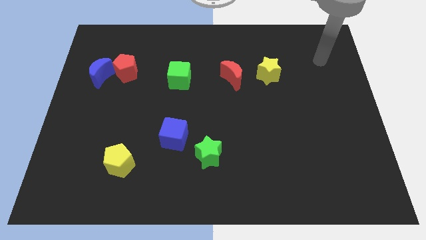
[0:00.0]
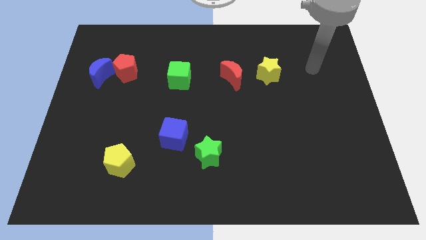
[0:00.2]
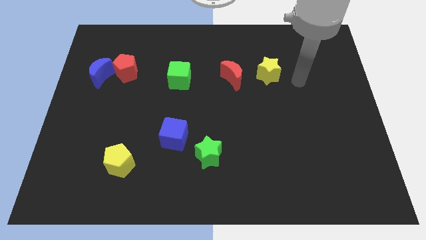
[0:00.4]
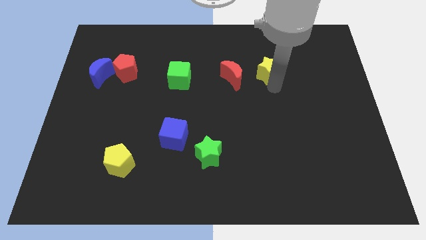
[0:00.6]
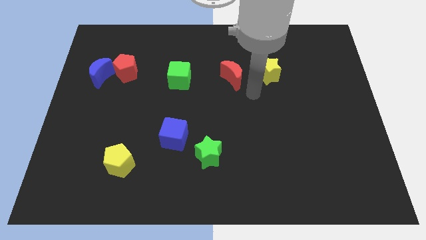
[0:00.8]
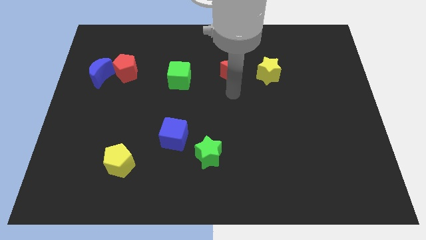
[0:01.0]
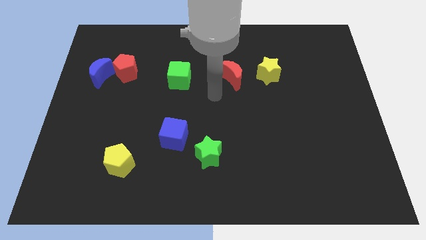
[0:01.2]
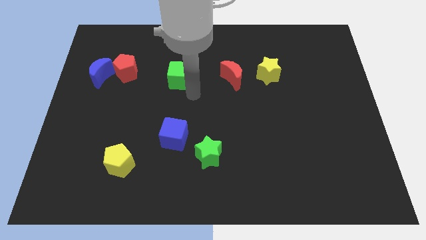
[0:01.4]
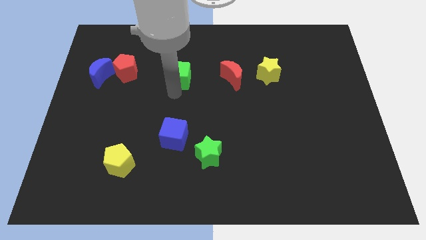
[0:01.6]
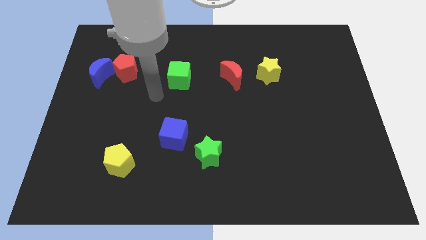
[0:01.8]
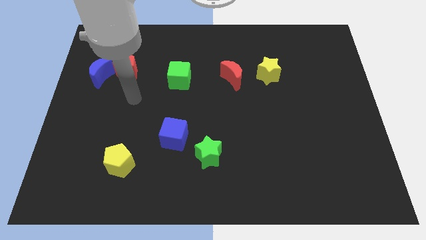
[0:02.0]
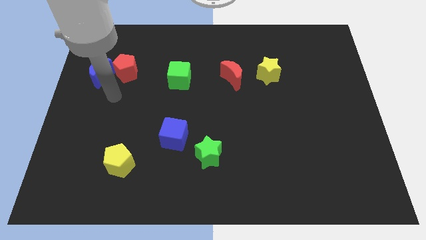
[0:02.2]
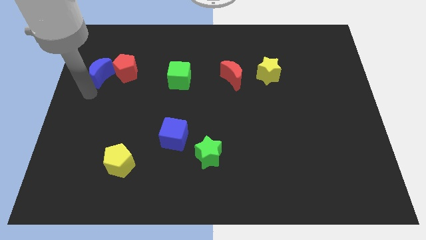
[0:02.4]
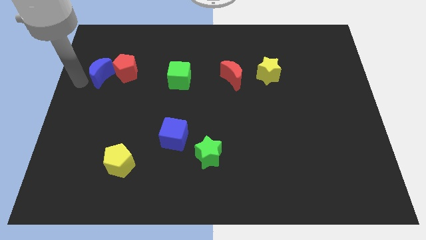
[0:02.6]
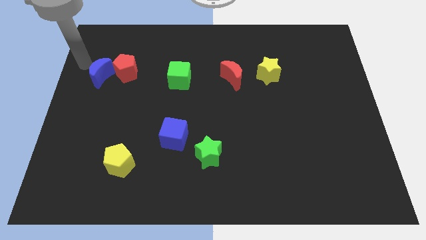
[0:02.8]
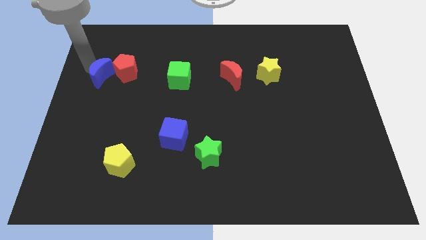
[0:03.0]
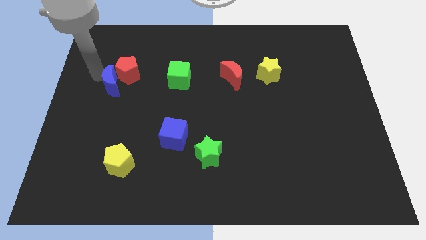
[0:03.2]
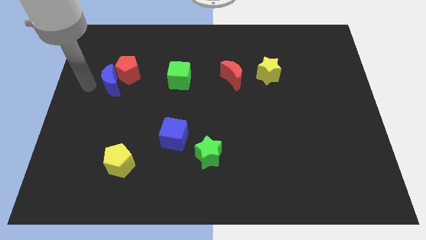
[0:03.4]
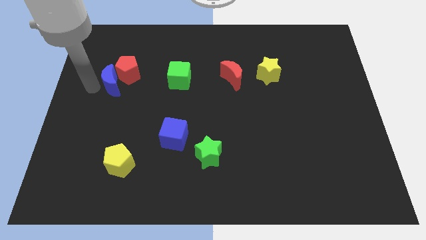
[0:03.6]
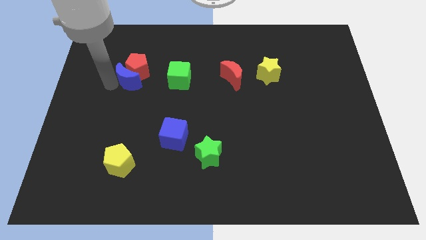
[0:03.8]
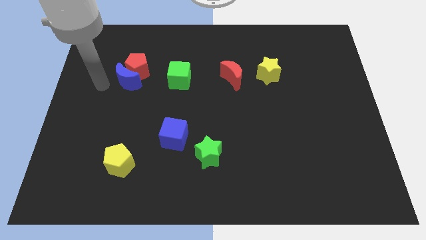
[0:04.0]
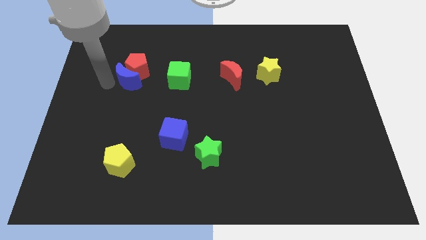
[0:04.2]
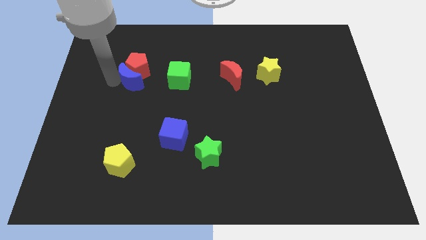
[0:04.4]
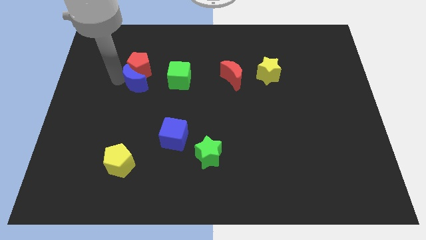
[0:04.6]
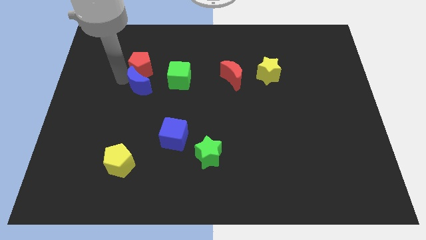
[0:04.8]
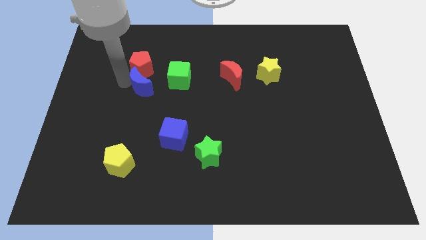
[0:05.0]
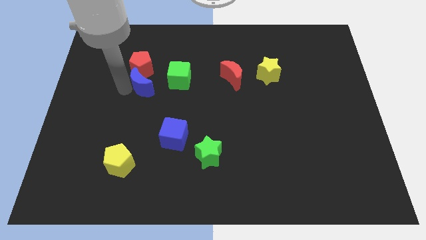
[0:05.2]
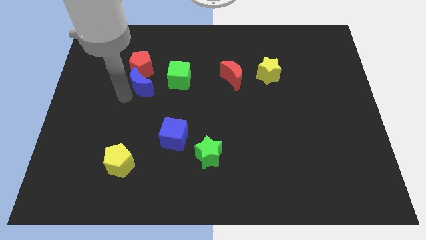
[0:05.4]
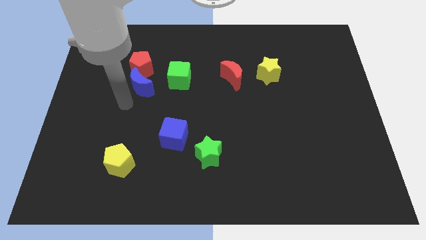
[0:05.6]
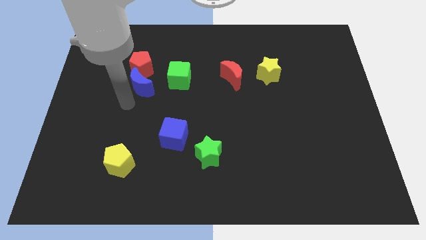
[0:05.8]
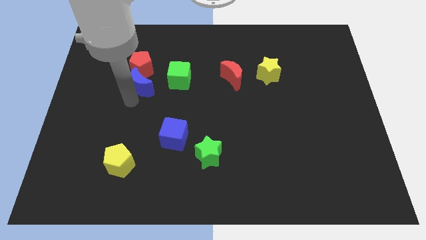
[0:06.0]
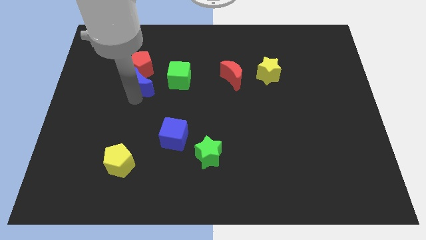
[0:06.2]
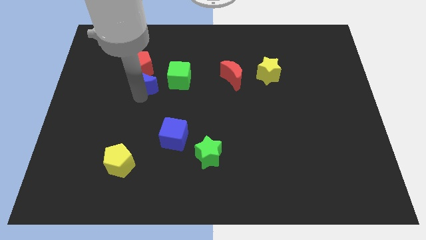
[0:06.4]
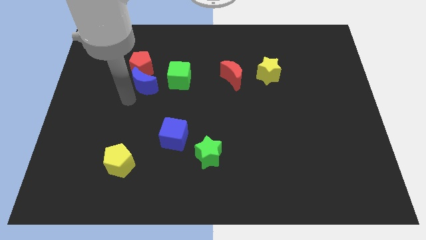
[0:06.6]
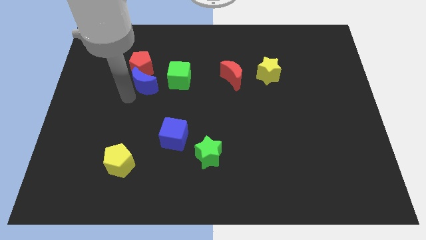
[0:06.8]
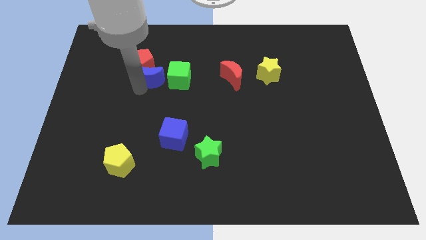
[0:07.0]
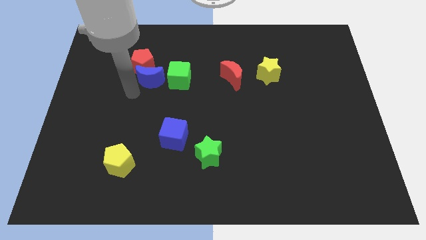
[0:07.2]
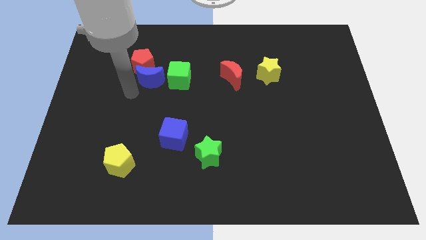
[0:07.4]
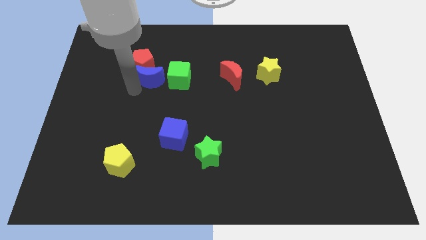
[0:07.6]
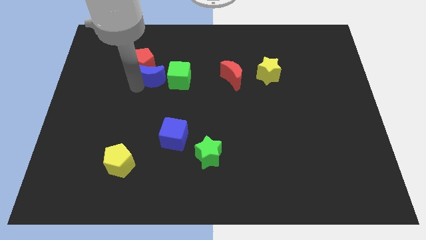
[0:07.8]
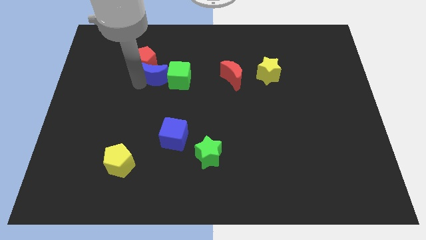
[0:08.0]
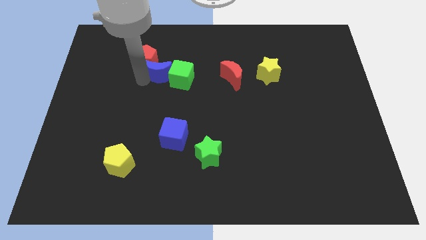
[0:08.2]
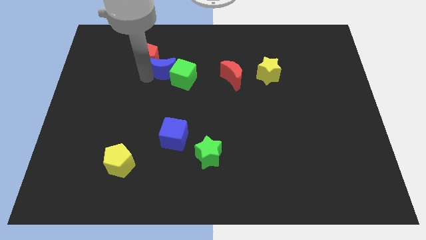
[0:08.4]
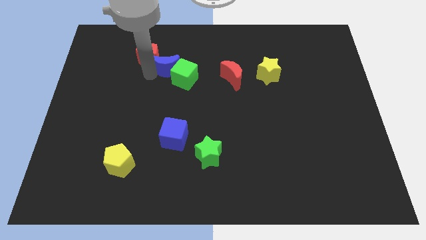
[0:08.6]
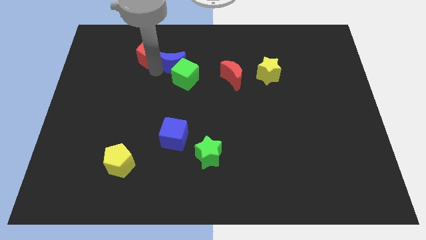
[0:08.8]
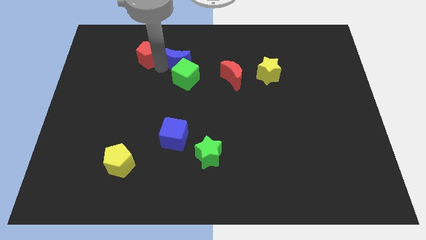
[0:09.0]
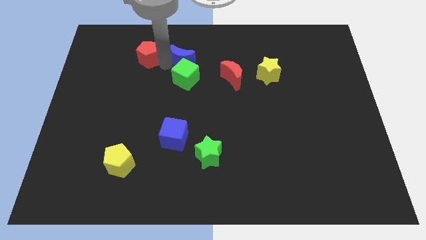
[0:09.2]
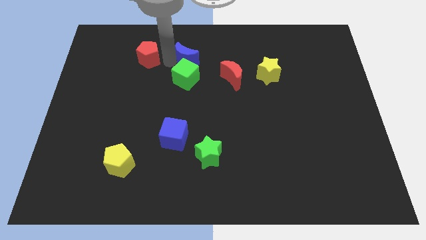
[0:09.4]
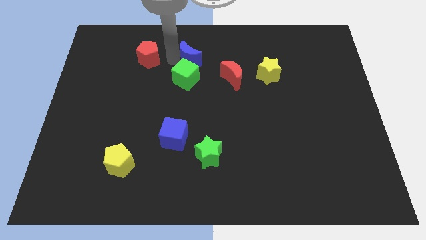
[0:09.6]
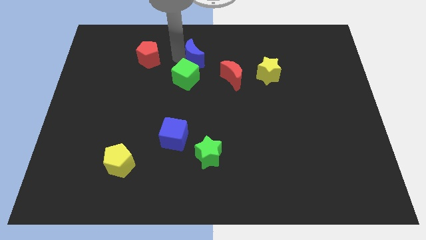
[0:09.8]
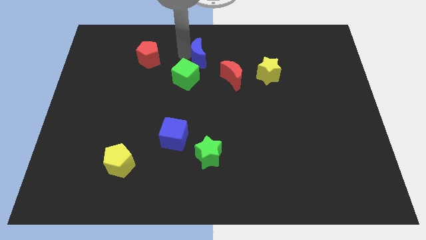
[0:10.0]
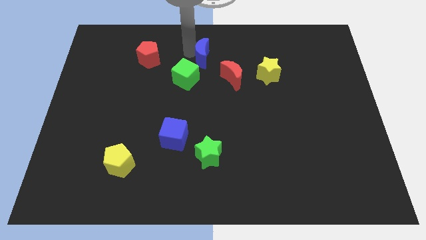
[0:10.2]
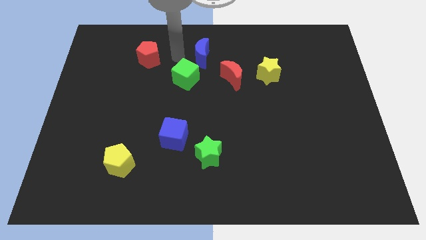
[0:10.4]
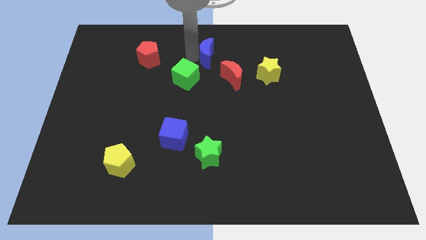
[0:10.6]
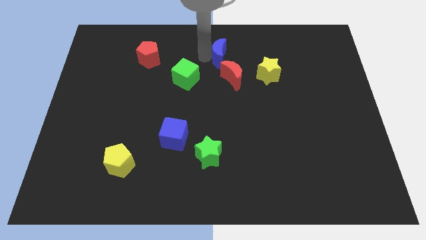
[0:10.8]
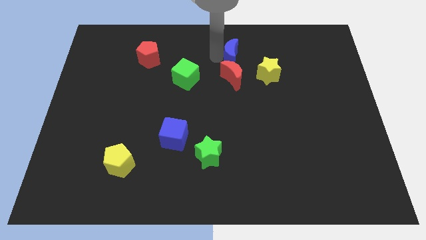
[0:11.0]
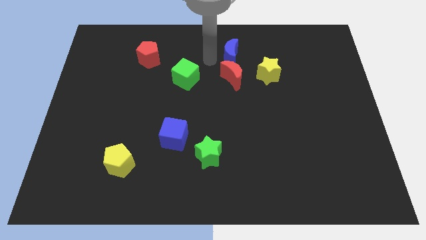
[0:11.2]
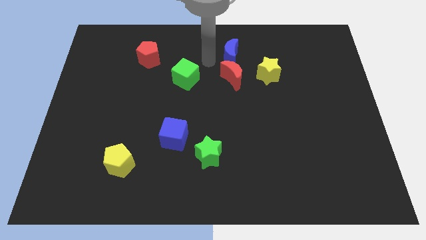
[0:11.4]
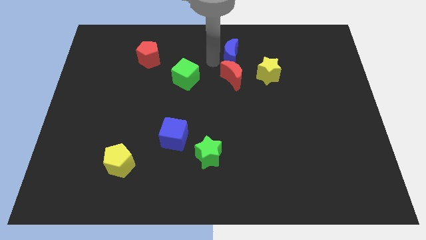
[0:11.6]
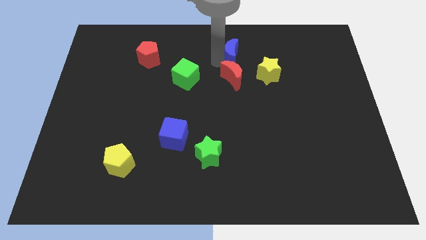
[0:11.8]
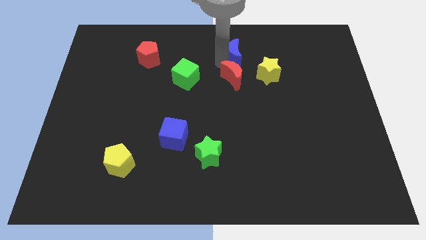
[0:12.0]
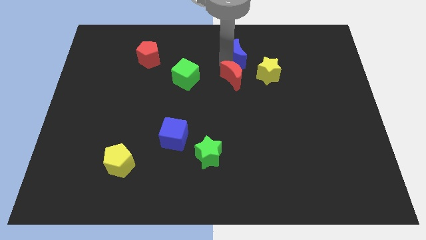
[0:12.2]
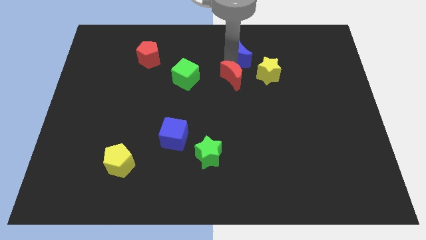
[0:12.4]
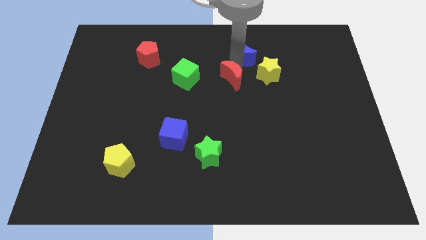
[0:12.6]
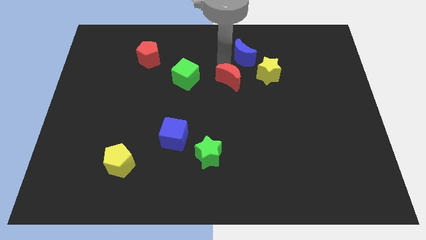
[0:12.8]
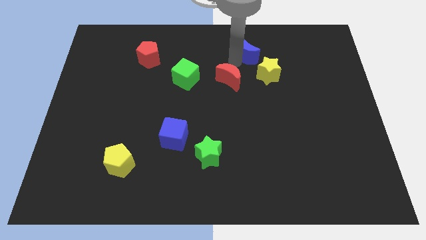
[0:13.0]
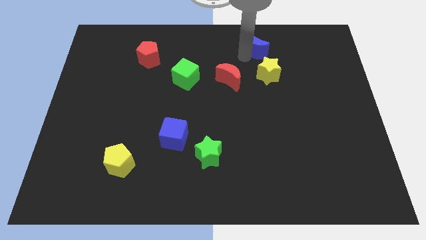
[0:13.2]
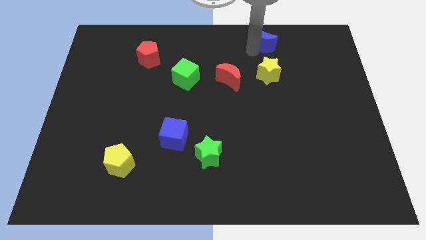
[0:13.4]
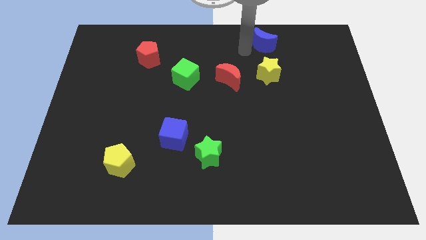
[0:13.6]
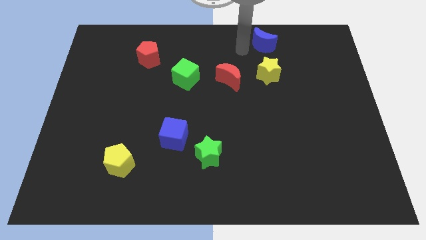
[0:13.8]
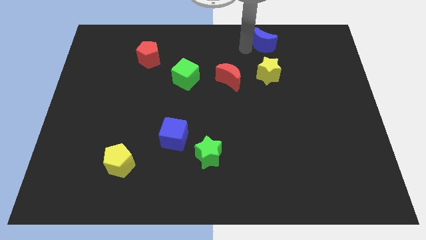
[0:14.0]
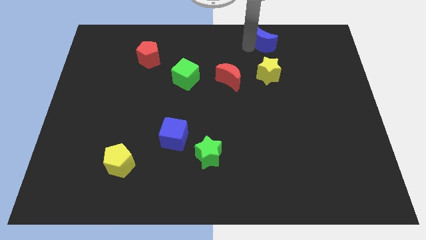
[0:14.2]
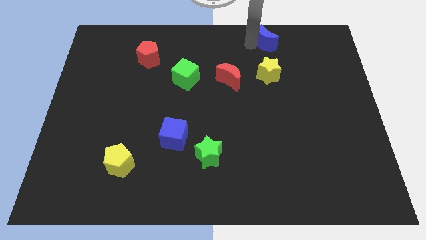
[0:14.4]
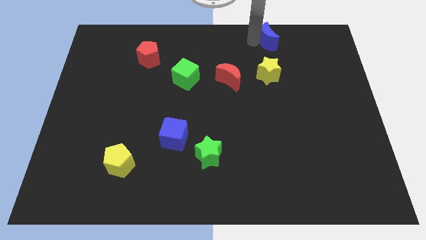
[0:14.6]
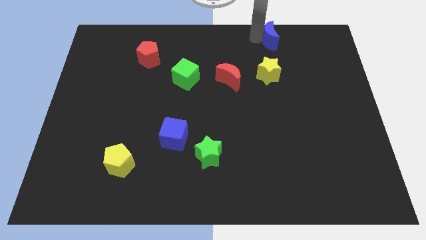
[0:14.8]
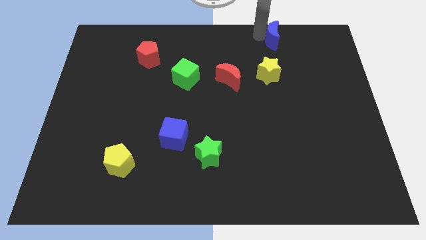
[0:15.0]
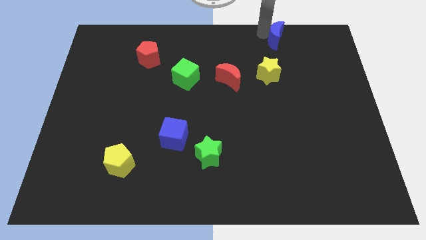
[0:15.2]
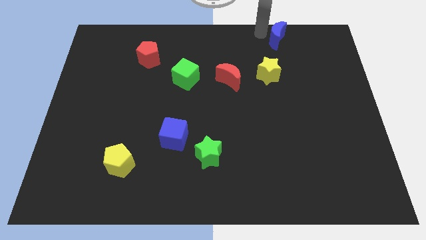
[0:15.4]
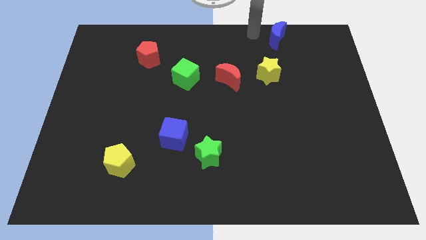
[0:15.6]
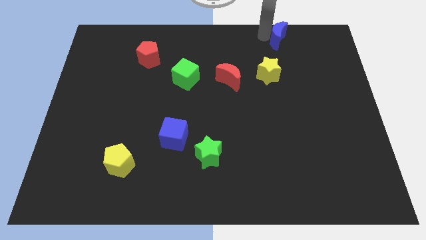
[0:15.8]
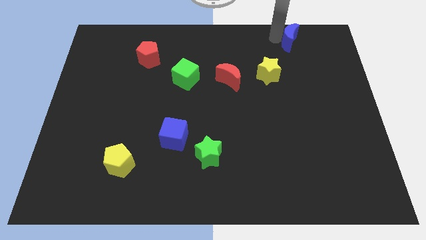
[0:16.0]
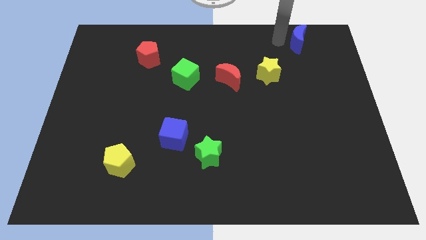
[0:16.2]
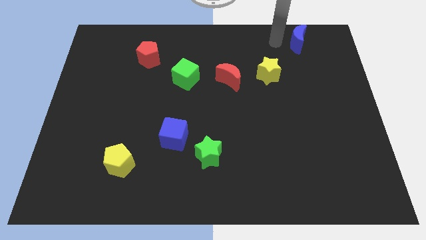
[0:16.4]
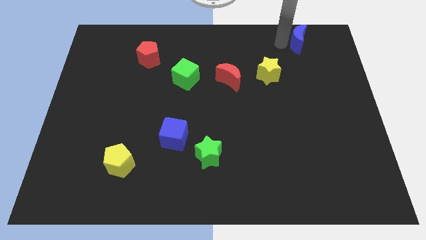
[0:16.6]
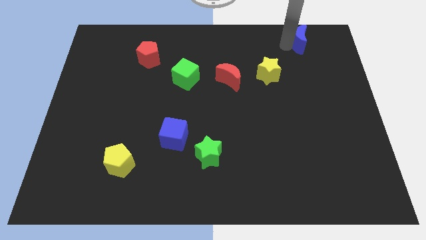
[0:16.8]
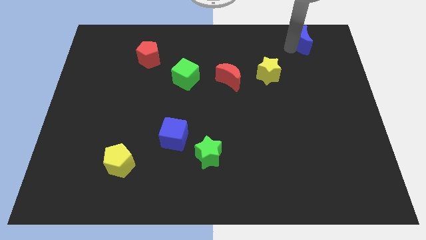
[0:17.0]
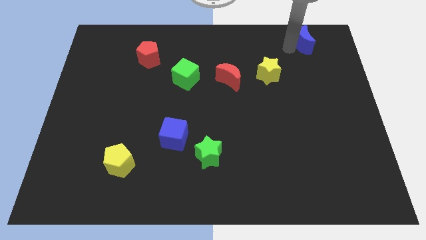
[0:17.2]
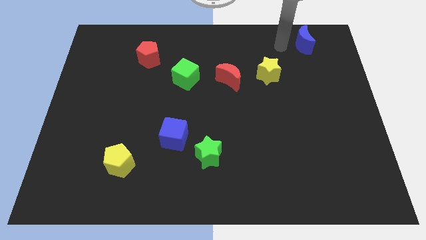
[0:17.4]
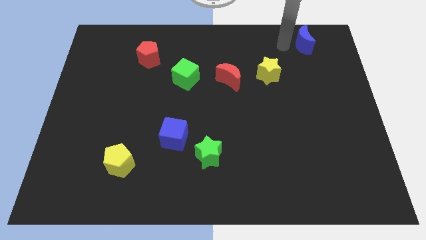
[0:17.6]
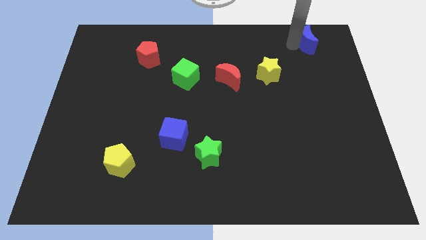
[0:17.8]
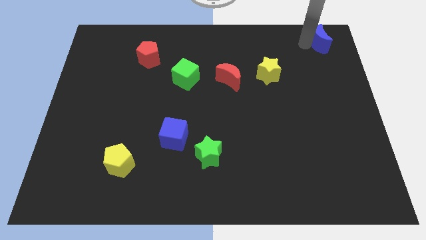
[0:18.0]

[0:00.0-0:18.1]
move the blue moon to the top right corner
